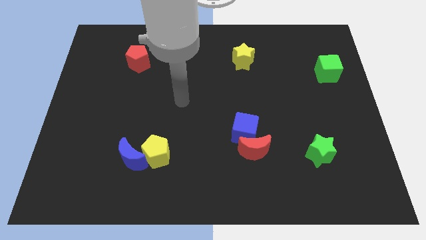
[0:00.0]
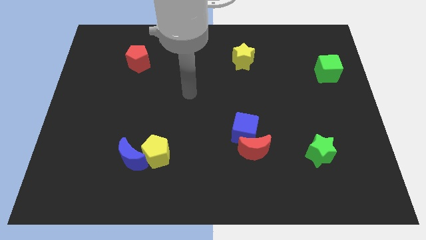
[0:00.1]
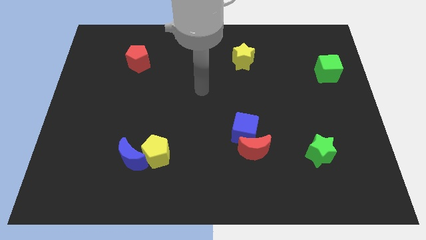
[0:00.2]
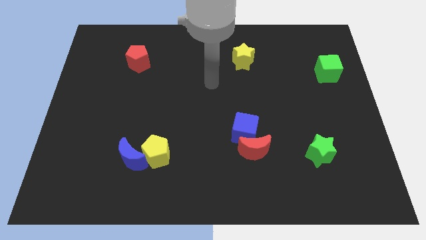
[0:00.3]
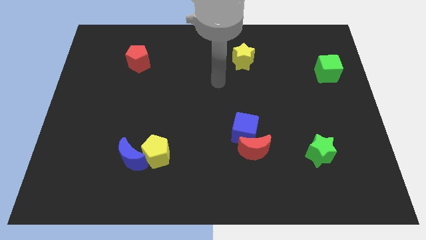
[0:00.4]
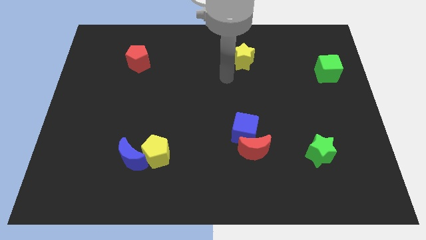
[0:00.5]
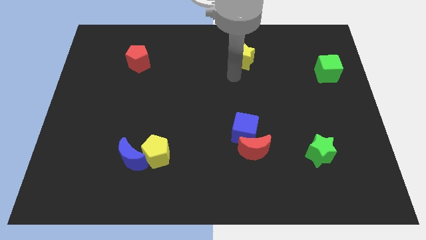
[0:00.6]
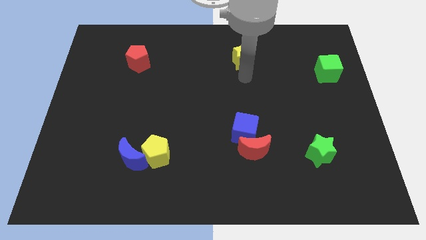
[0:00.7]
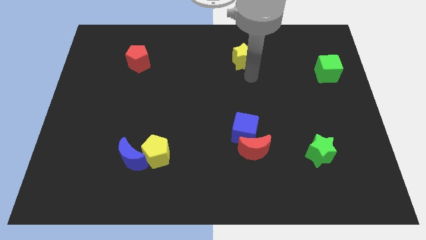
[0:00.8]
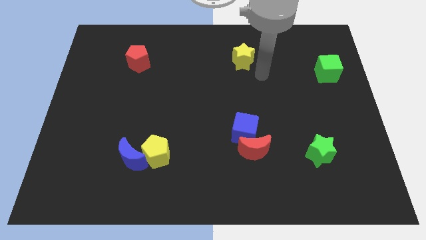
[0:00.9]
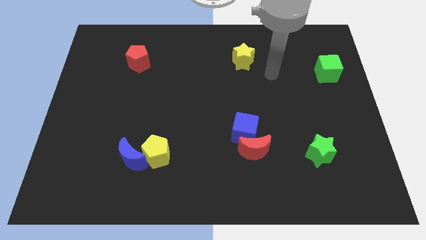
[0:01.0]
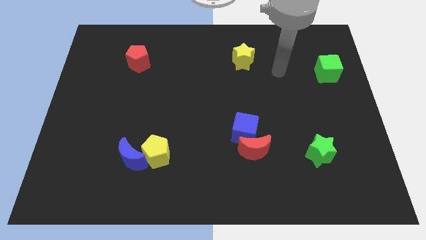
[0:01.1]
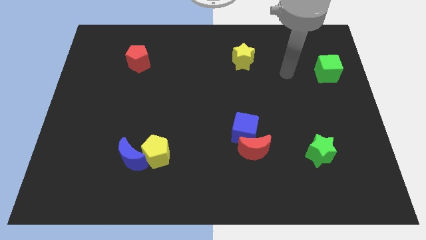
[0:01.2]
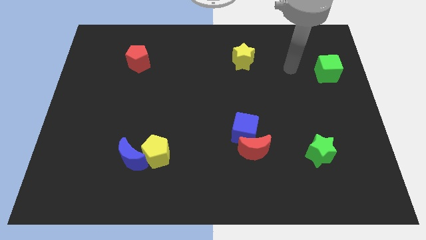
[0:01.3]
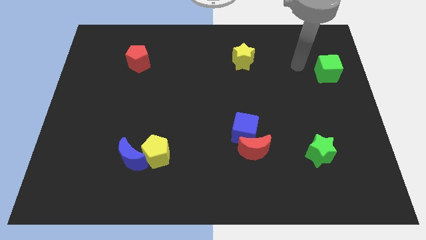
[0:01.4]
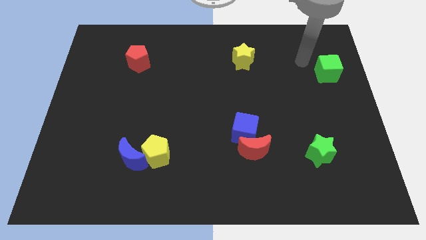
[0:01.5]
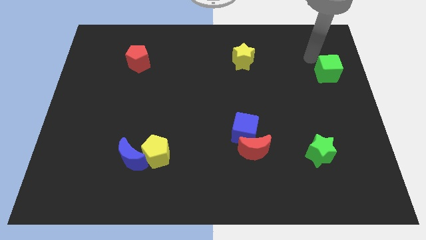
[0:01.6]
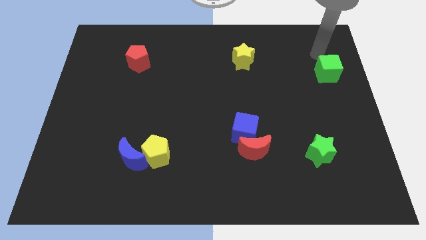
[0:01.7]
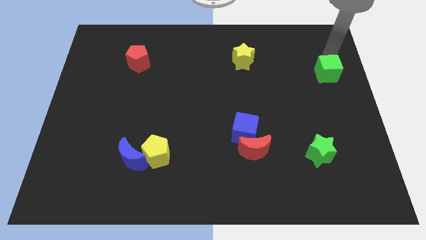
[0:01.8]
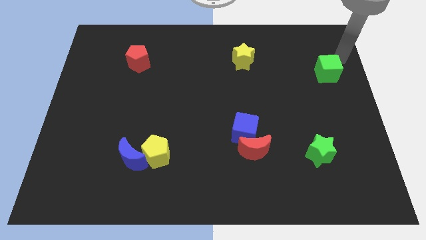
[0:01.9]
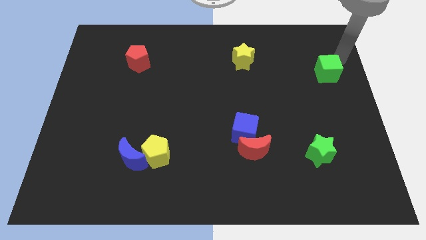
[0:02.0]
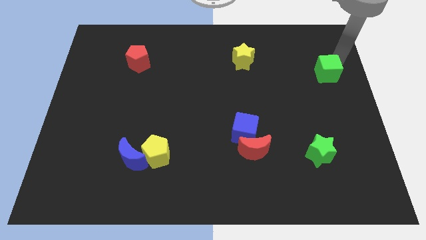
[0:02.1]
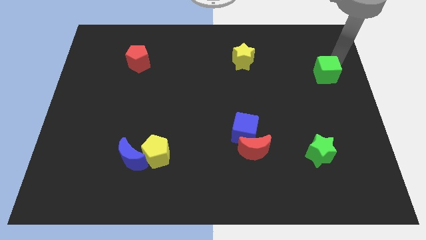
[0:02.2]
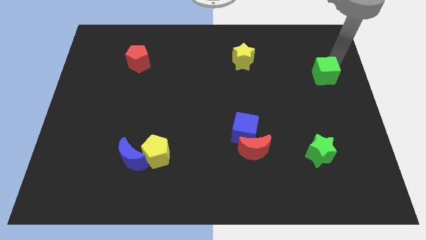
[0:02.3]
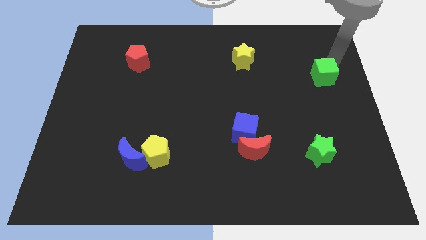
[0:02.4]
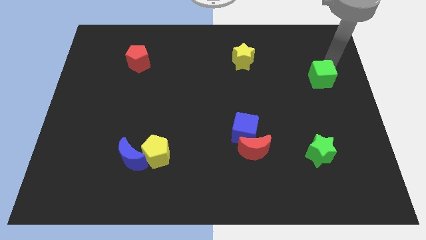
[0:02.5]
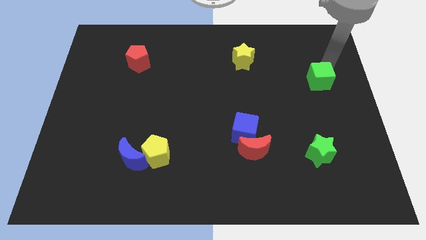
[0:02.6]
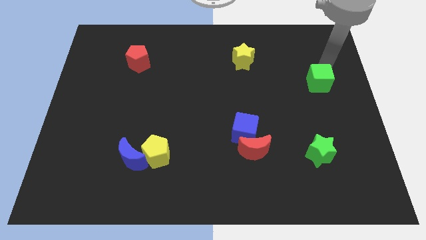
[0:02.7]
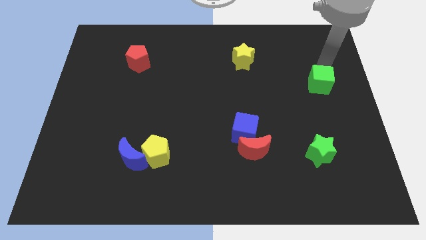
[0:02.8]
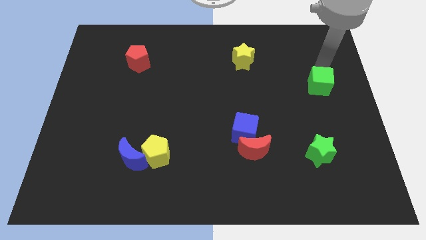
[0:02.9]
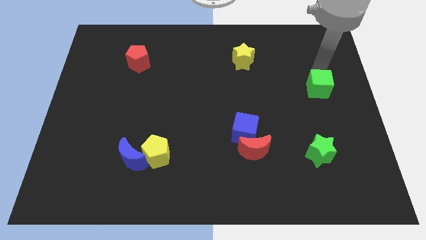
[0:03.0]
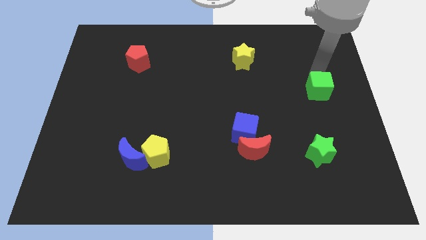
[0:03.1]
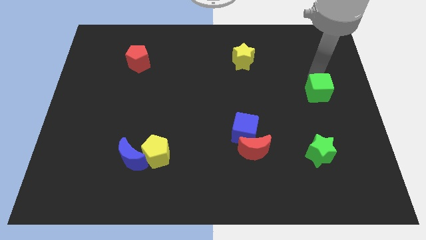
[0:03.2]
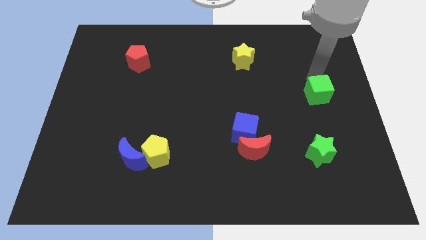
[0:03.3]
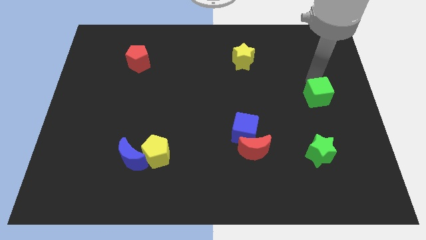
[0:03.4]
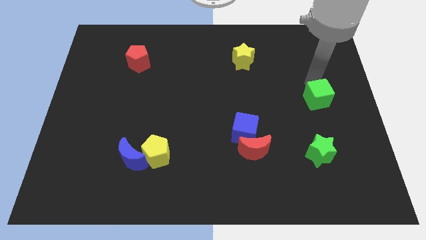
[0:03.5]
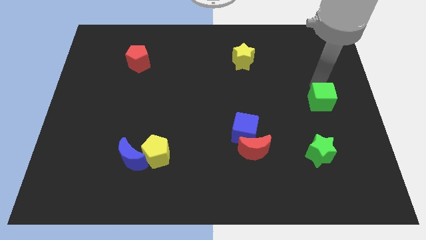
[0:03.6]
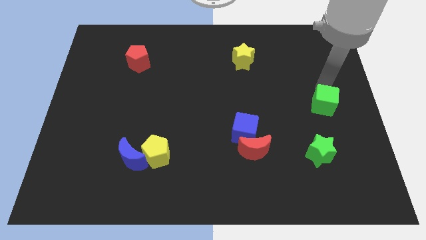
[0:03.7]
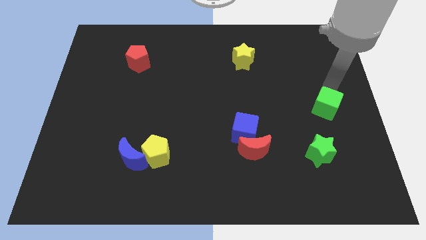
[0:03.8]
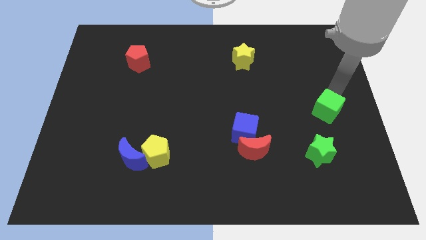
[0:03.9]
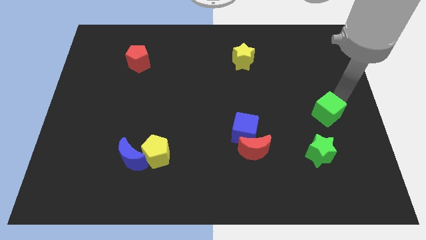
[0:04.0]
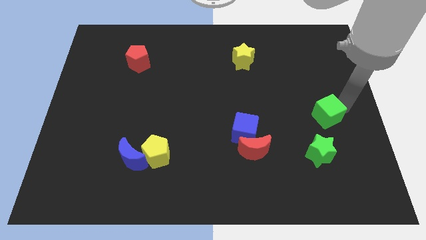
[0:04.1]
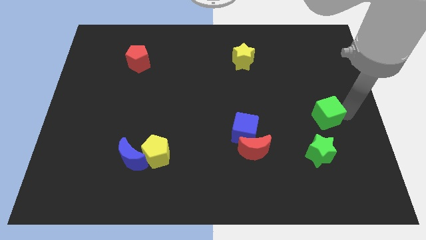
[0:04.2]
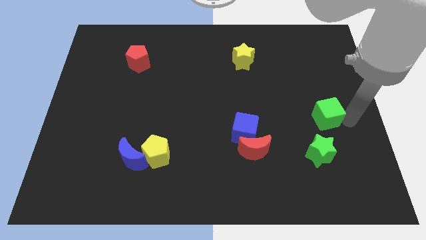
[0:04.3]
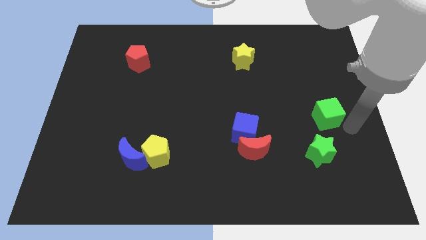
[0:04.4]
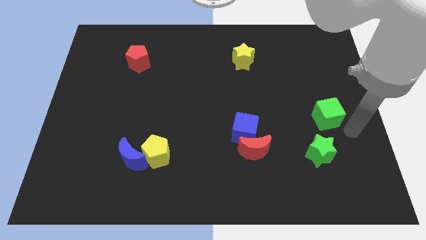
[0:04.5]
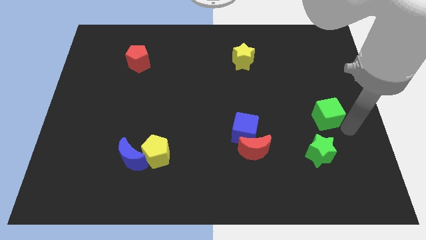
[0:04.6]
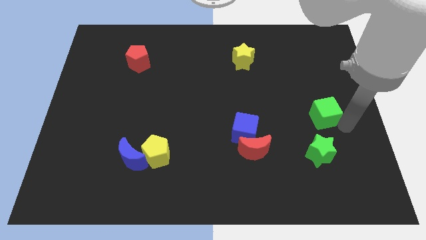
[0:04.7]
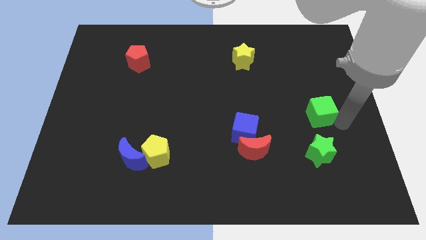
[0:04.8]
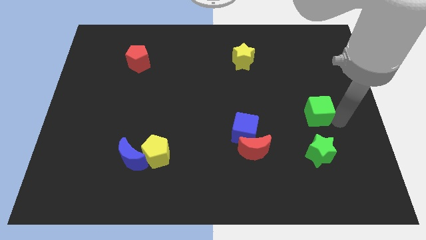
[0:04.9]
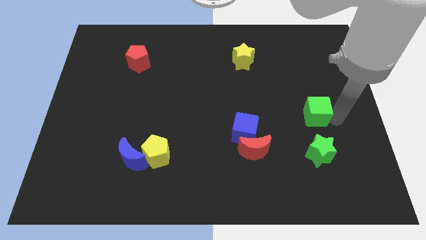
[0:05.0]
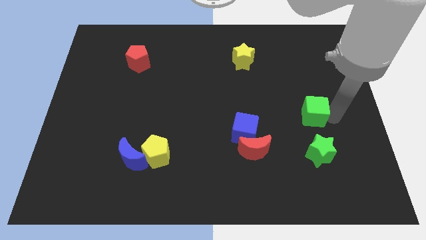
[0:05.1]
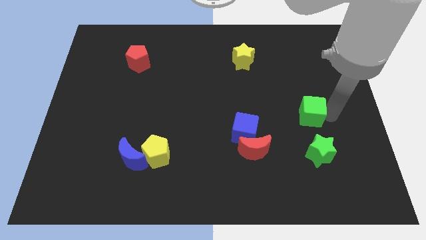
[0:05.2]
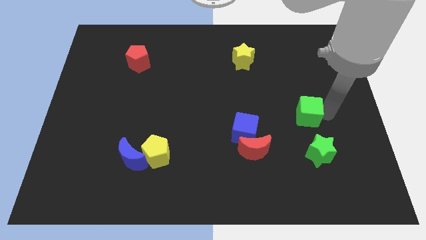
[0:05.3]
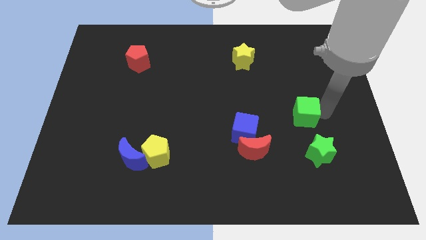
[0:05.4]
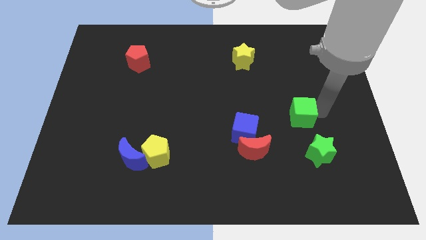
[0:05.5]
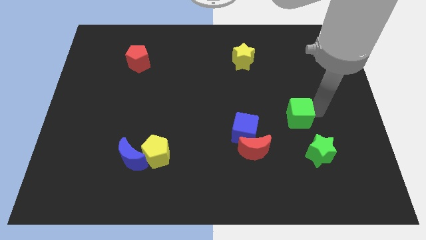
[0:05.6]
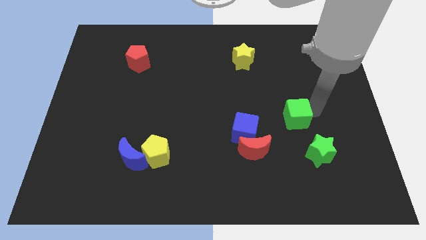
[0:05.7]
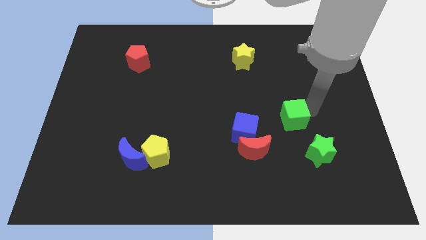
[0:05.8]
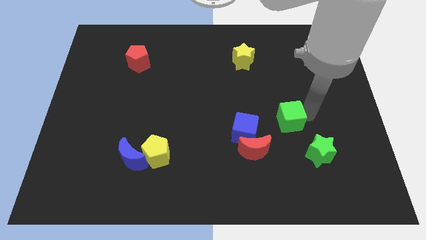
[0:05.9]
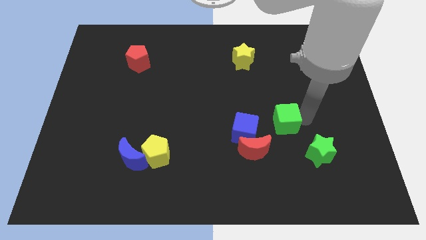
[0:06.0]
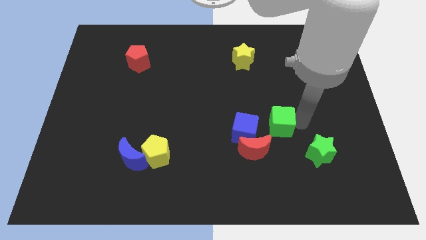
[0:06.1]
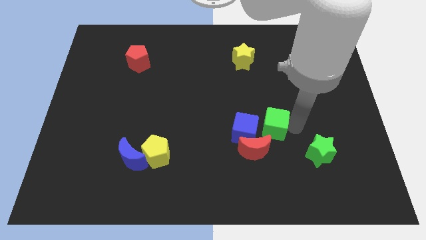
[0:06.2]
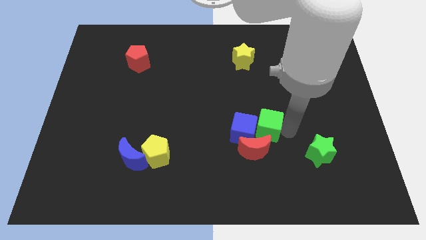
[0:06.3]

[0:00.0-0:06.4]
move the green cube diagonally down and to the right of the blue cube
